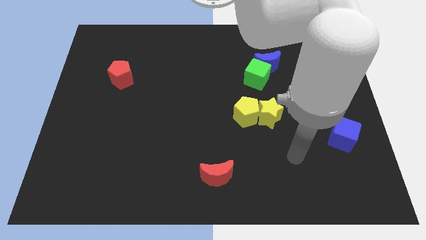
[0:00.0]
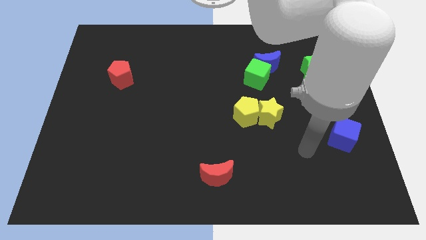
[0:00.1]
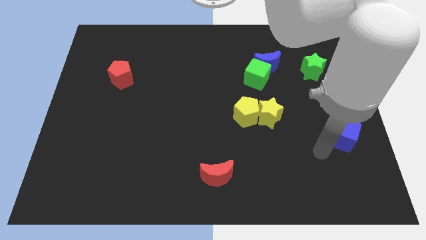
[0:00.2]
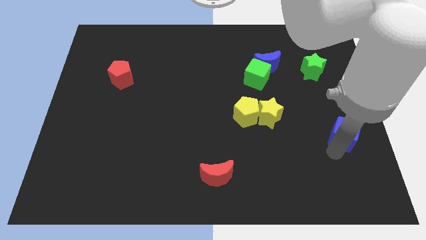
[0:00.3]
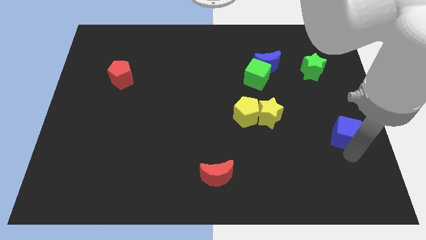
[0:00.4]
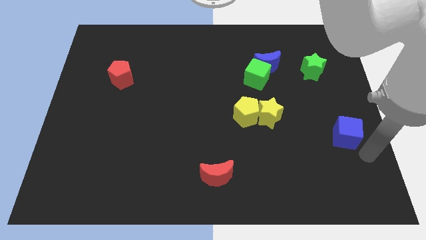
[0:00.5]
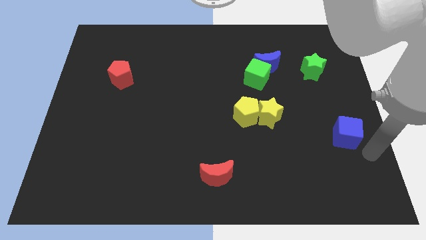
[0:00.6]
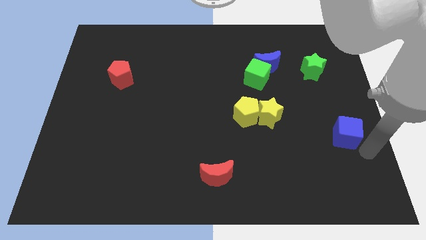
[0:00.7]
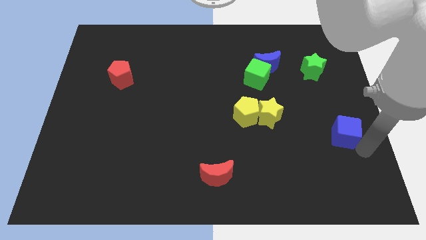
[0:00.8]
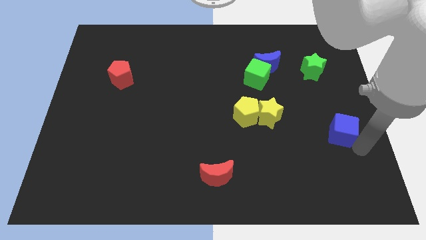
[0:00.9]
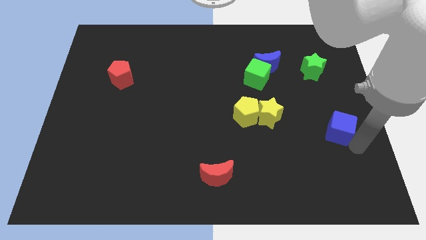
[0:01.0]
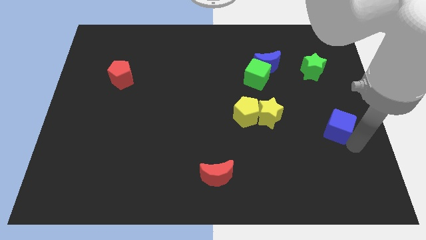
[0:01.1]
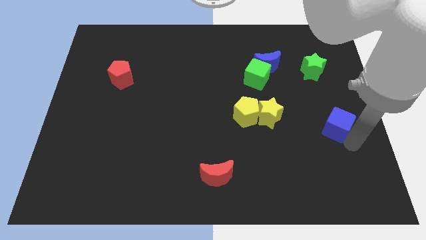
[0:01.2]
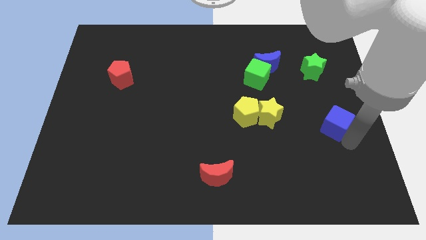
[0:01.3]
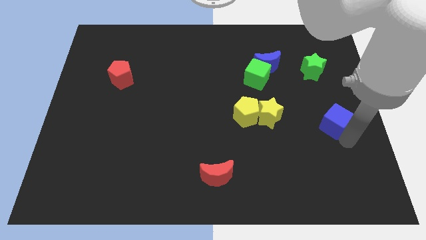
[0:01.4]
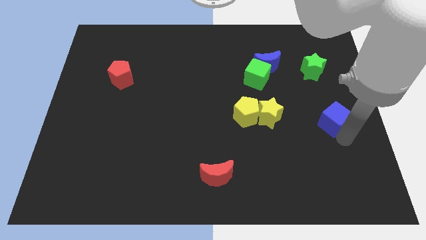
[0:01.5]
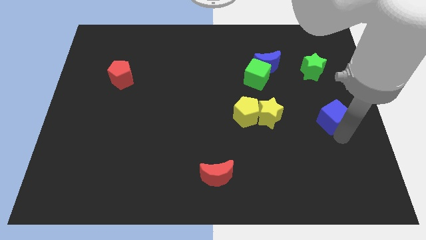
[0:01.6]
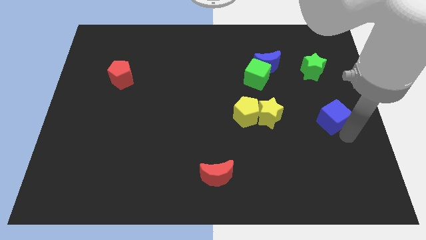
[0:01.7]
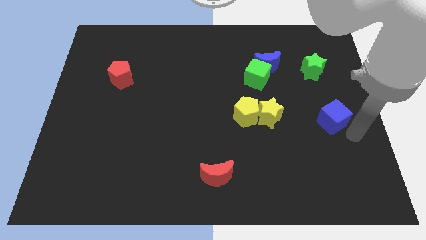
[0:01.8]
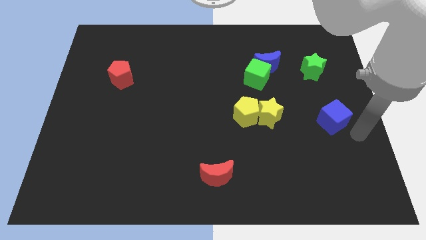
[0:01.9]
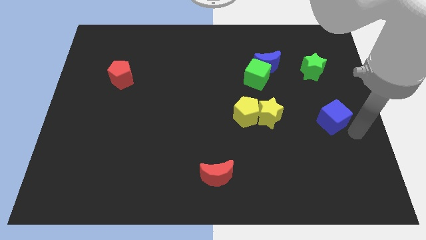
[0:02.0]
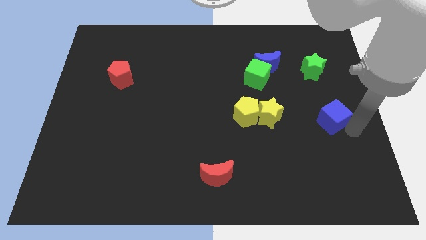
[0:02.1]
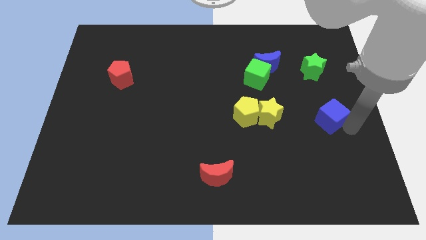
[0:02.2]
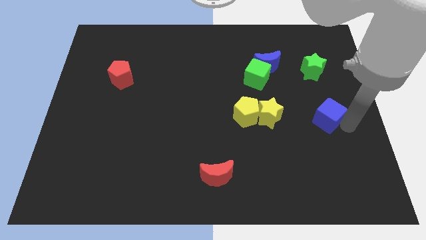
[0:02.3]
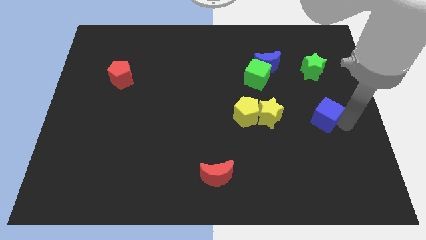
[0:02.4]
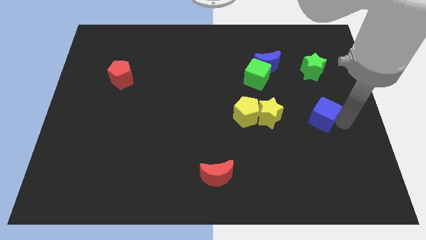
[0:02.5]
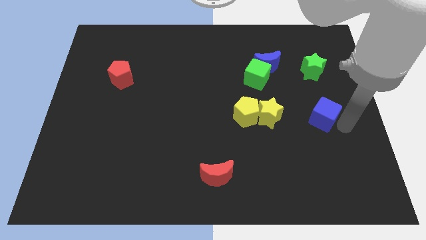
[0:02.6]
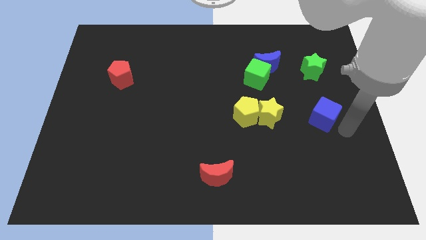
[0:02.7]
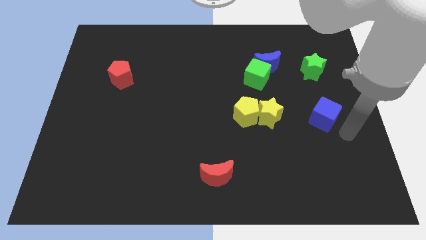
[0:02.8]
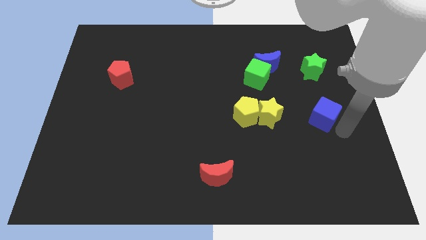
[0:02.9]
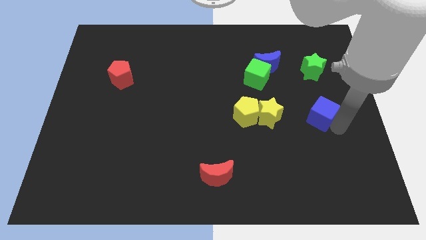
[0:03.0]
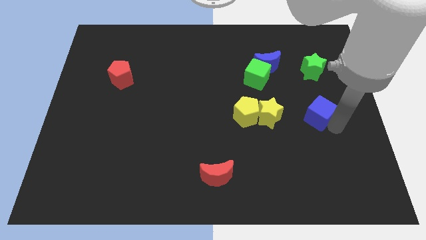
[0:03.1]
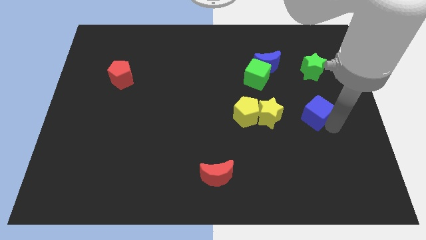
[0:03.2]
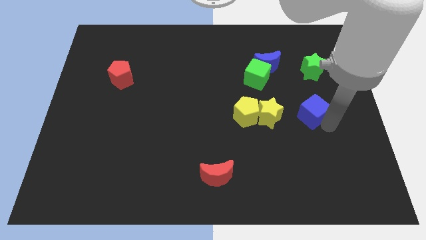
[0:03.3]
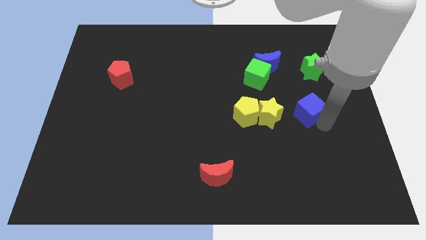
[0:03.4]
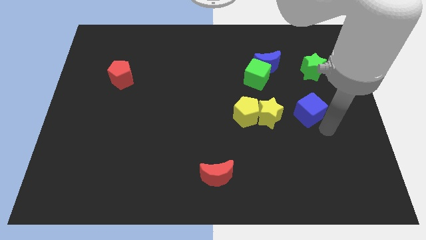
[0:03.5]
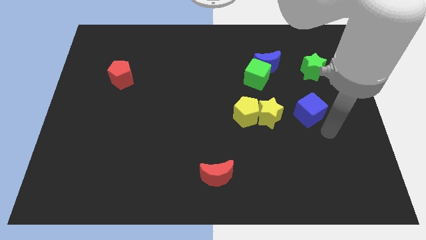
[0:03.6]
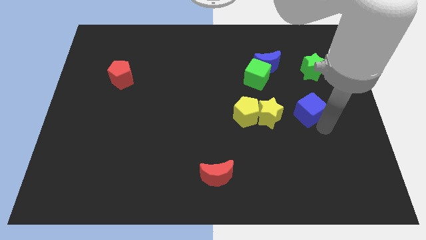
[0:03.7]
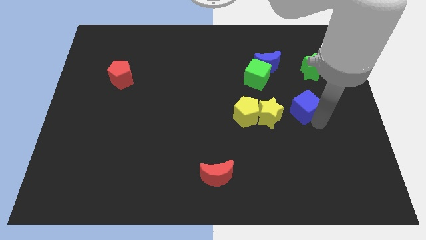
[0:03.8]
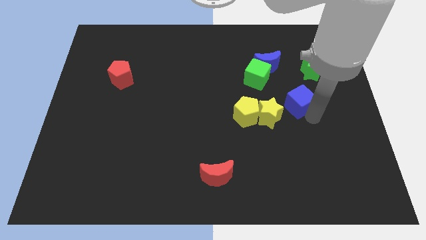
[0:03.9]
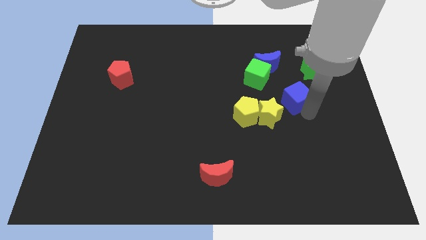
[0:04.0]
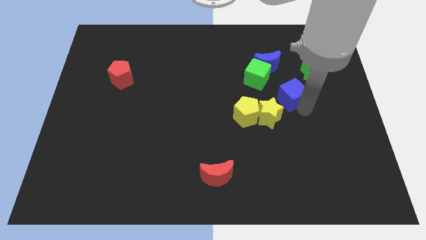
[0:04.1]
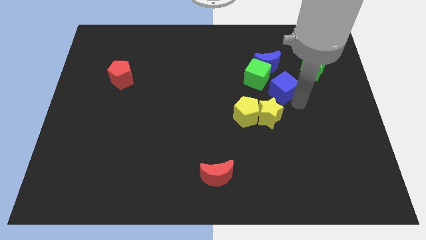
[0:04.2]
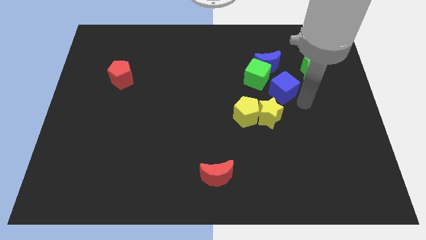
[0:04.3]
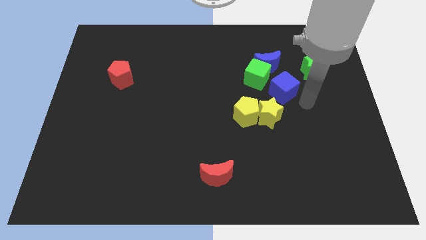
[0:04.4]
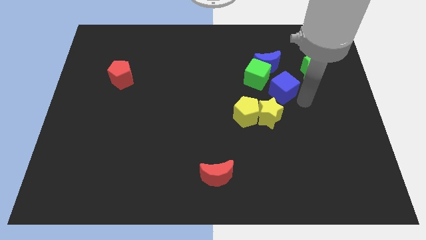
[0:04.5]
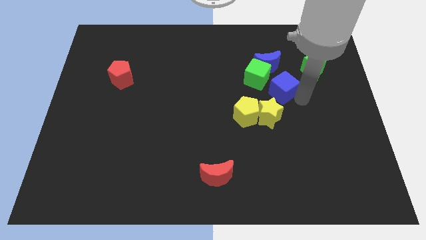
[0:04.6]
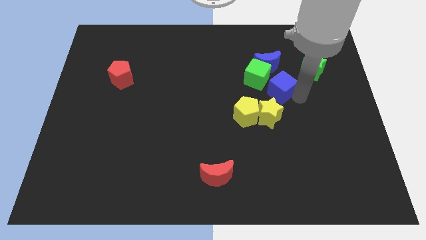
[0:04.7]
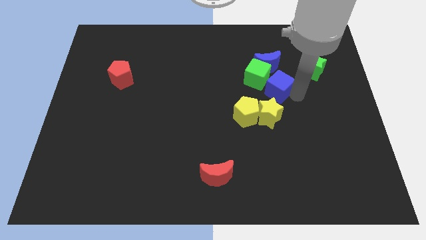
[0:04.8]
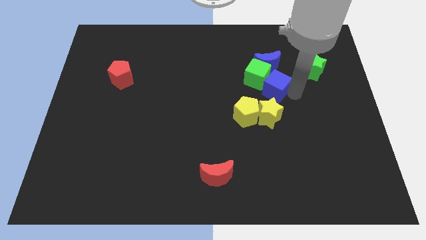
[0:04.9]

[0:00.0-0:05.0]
slide the blue cube towards the green cube

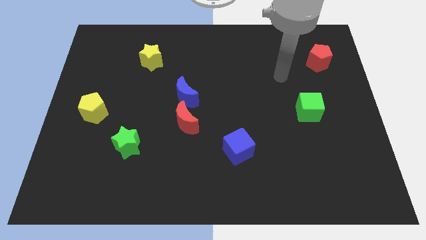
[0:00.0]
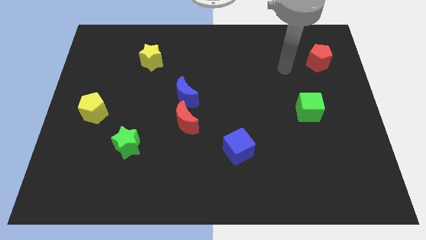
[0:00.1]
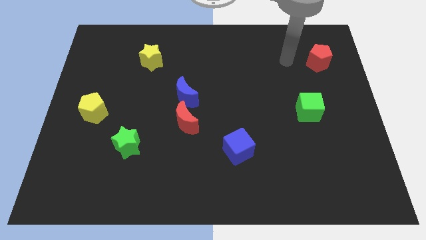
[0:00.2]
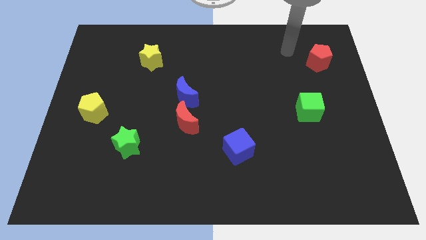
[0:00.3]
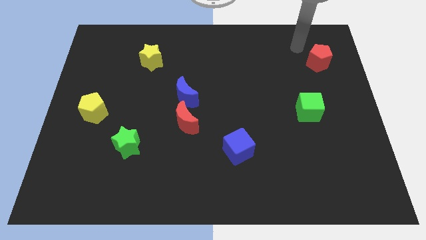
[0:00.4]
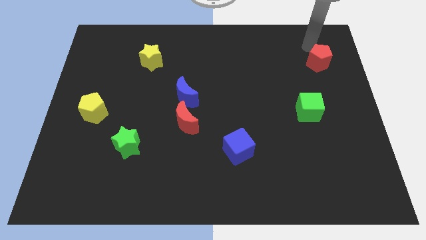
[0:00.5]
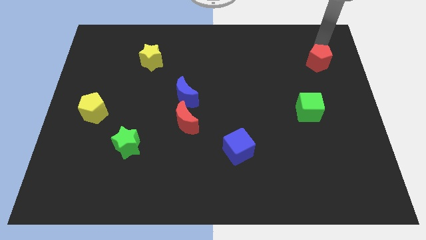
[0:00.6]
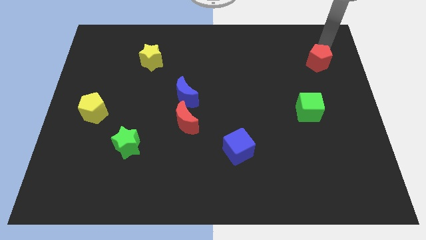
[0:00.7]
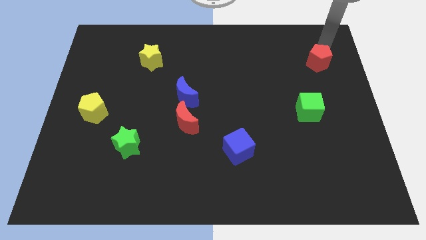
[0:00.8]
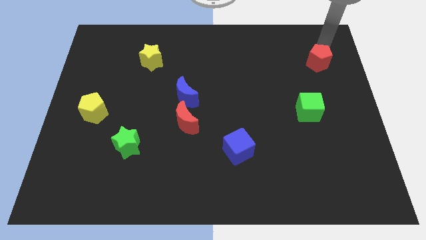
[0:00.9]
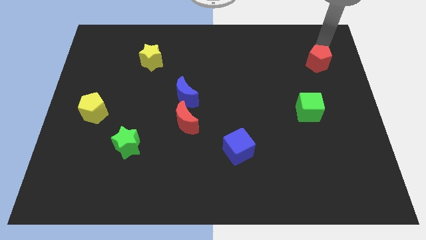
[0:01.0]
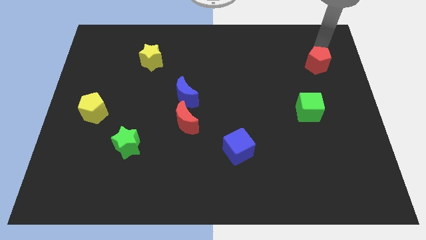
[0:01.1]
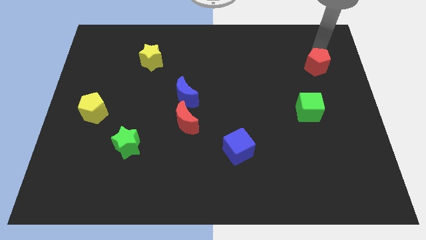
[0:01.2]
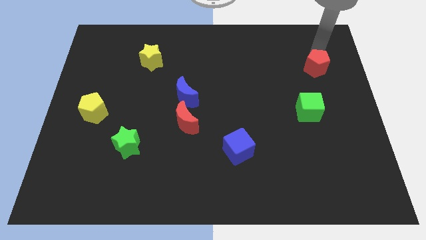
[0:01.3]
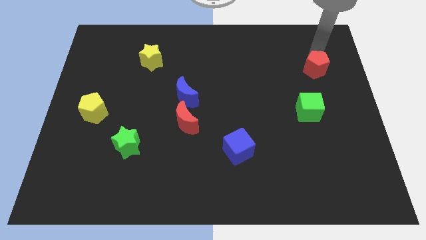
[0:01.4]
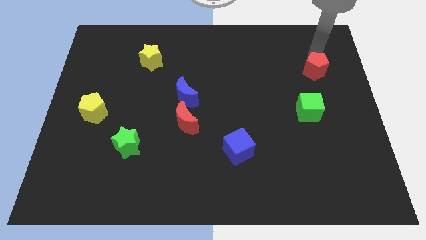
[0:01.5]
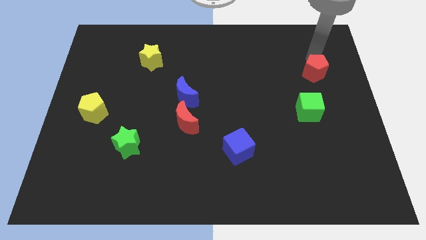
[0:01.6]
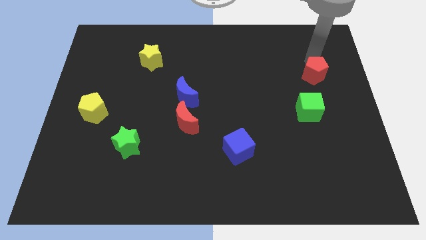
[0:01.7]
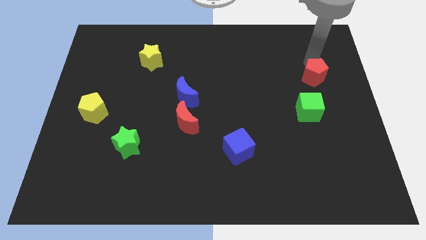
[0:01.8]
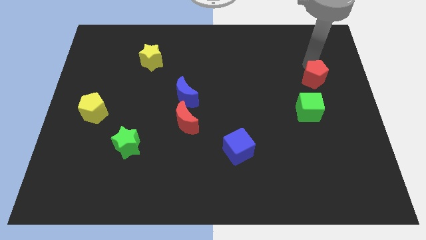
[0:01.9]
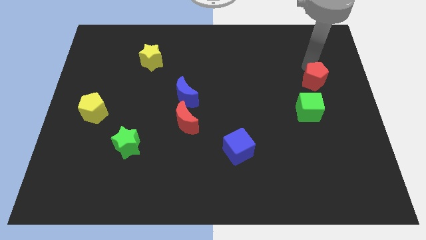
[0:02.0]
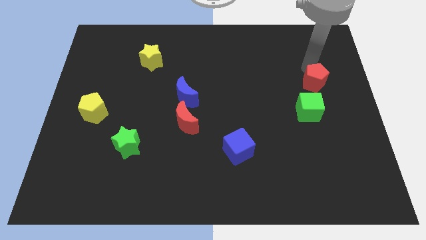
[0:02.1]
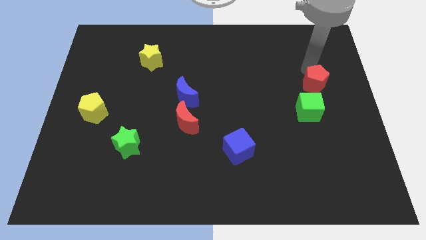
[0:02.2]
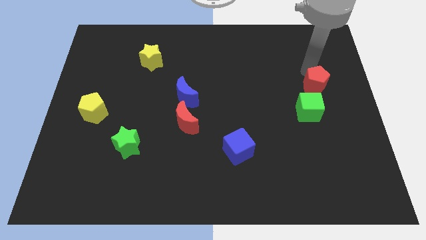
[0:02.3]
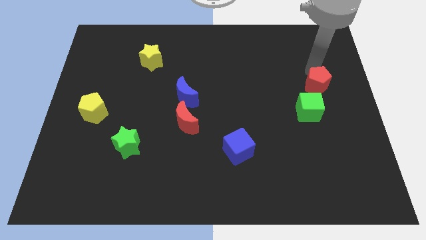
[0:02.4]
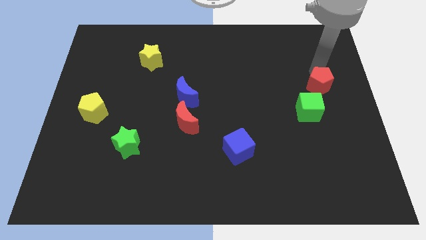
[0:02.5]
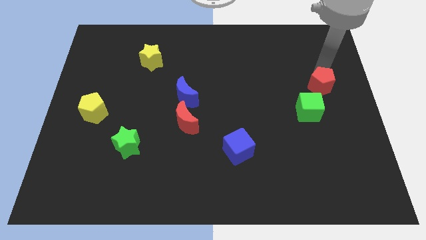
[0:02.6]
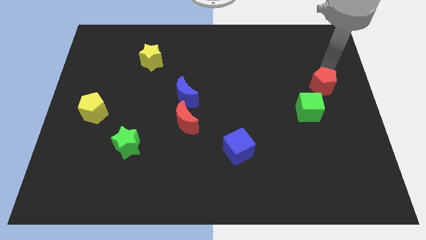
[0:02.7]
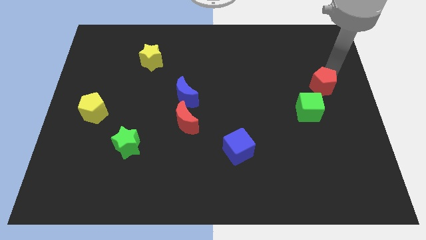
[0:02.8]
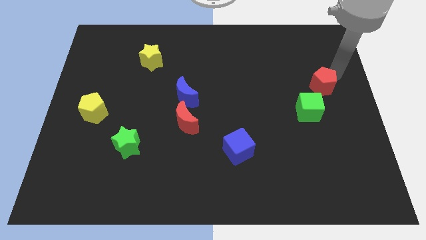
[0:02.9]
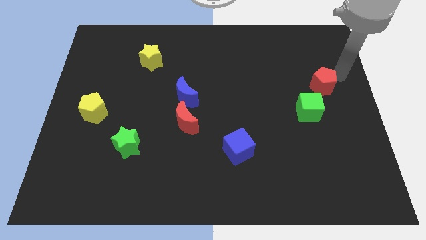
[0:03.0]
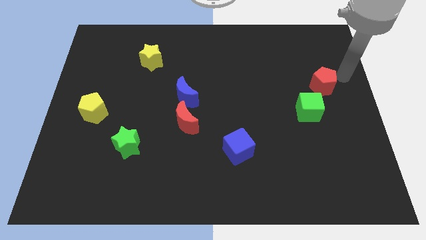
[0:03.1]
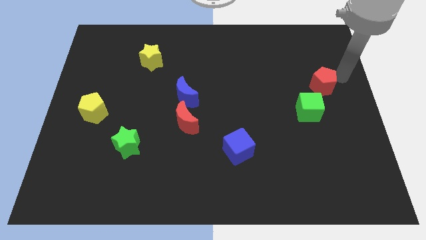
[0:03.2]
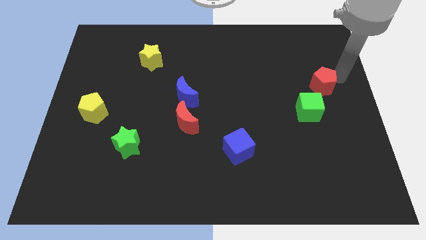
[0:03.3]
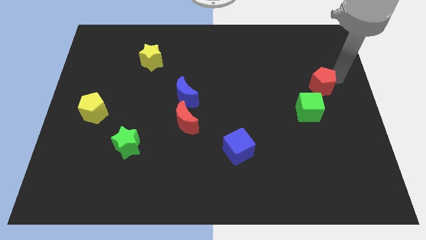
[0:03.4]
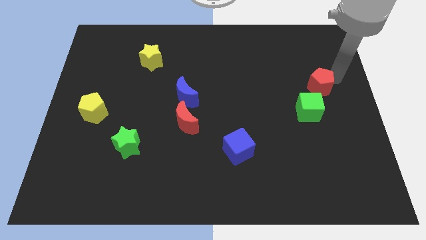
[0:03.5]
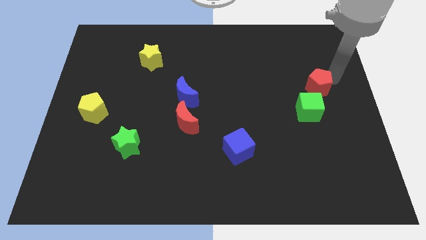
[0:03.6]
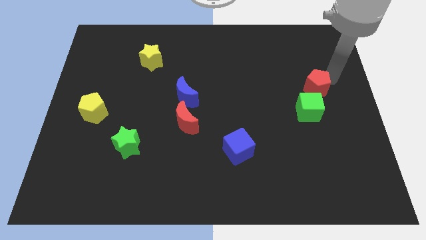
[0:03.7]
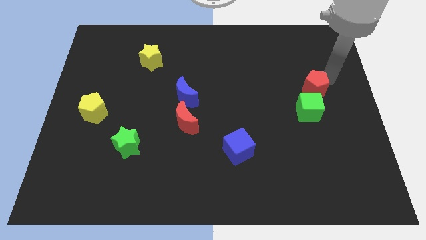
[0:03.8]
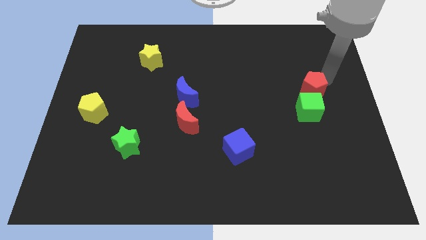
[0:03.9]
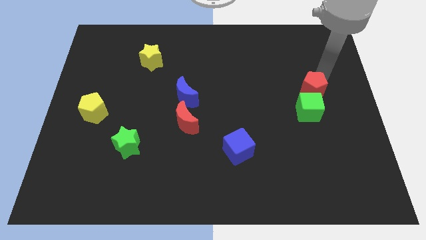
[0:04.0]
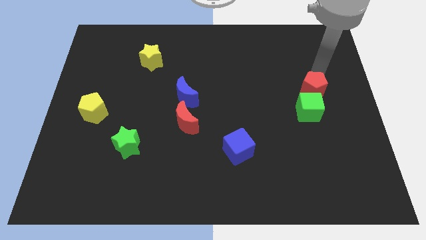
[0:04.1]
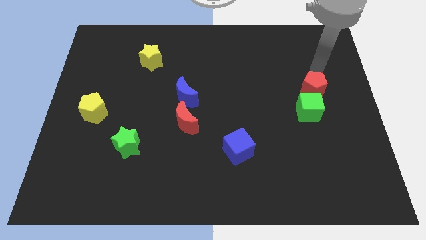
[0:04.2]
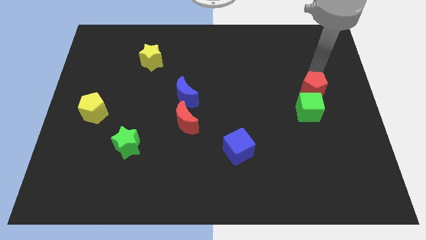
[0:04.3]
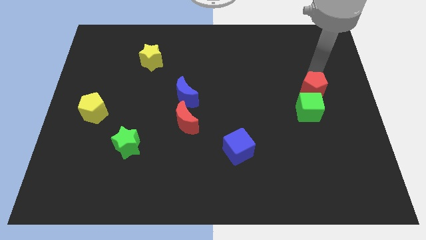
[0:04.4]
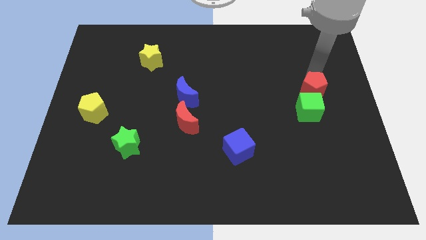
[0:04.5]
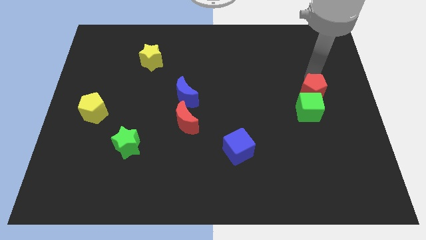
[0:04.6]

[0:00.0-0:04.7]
put the red pentagon next to the green cube
